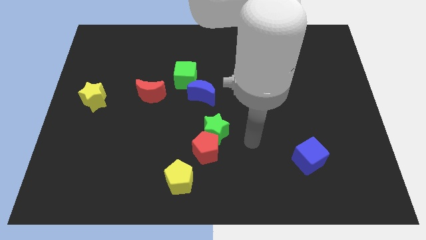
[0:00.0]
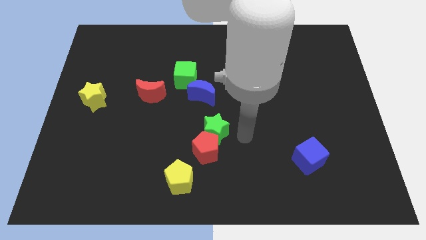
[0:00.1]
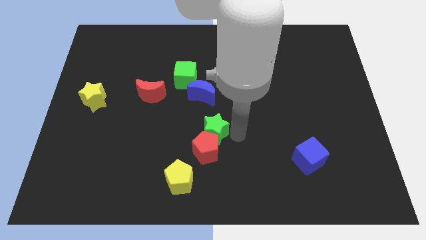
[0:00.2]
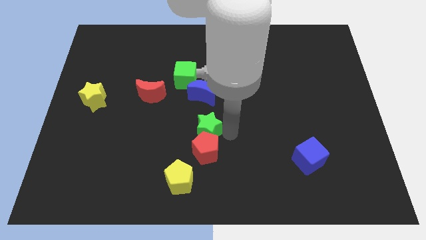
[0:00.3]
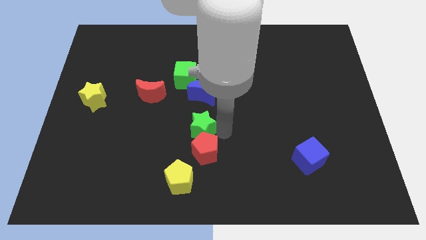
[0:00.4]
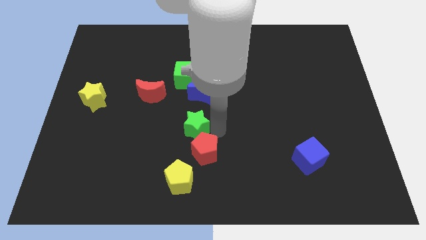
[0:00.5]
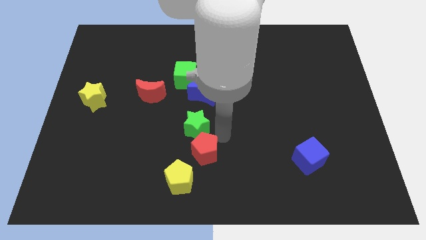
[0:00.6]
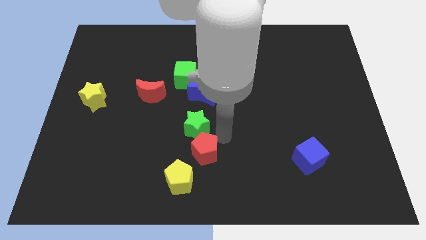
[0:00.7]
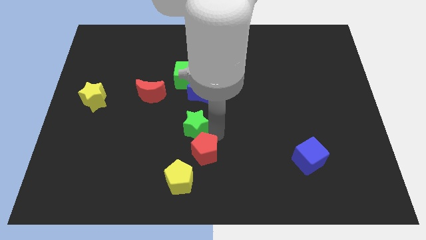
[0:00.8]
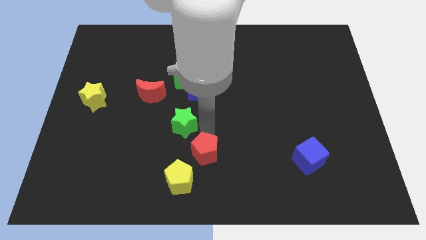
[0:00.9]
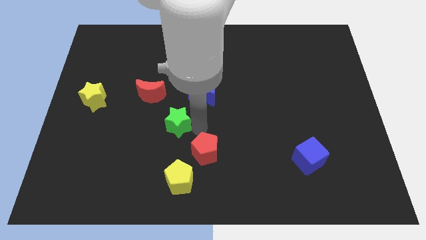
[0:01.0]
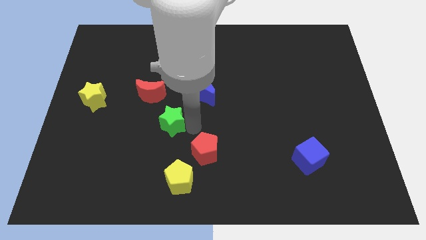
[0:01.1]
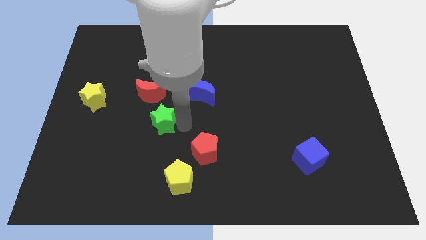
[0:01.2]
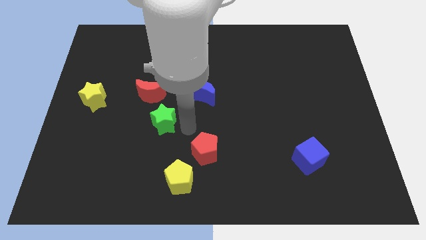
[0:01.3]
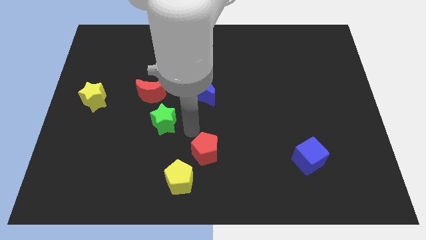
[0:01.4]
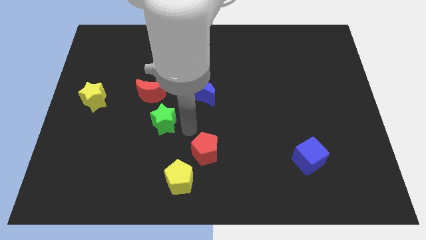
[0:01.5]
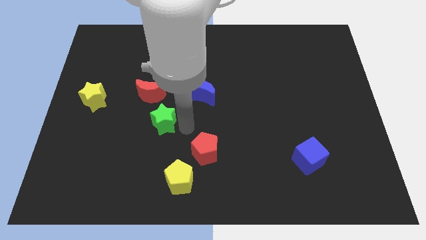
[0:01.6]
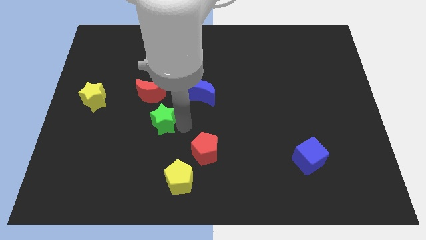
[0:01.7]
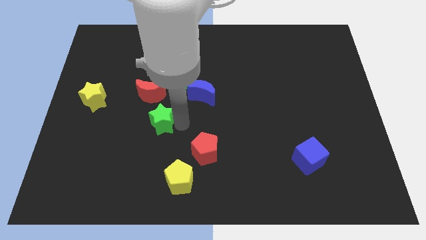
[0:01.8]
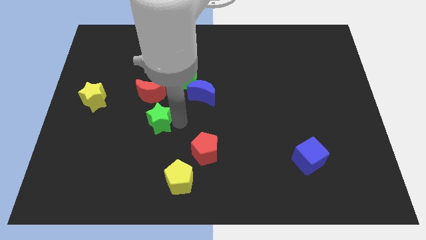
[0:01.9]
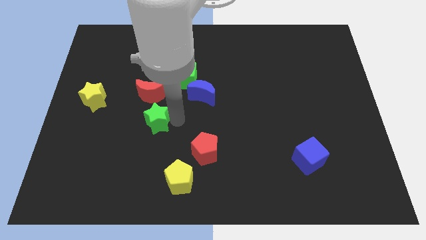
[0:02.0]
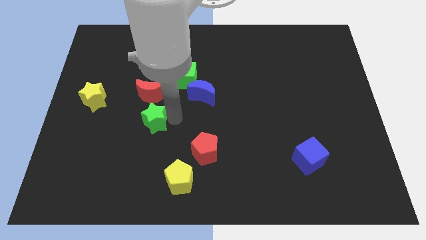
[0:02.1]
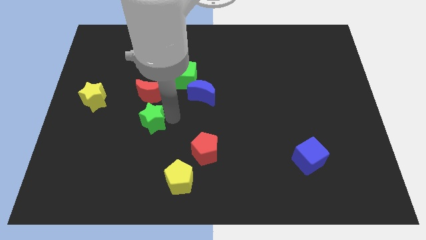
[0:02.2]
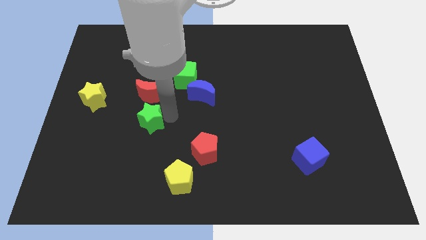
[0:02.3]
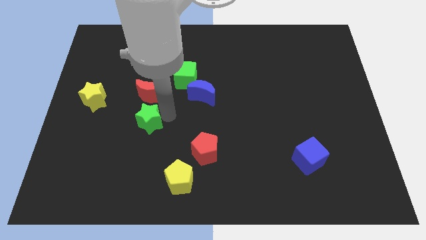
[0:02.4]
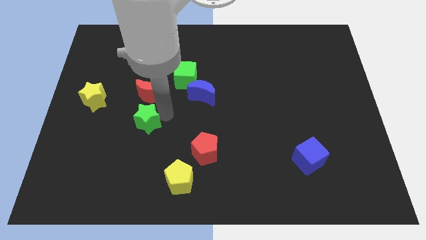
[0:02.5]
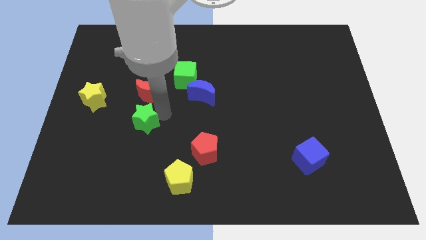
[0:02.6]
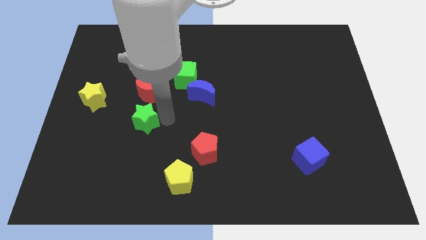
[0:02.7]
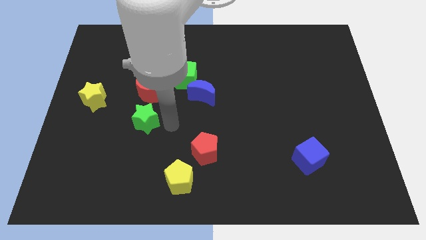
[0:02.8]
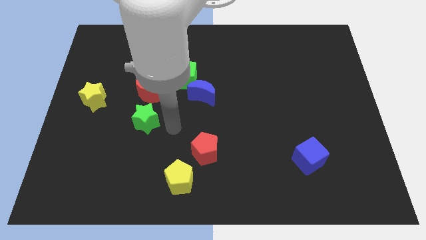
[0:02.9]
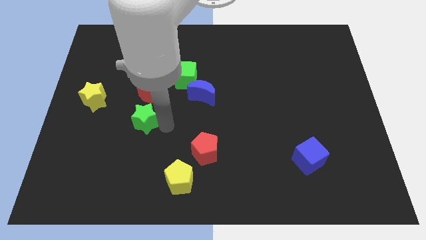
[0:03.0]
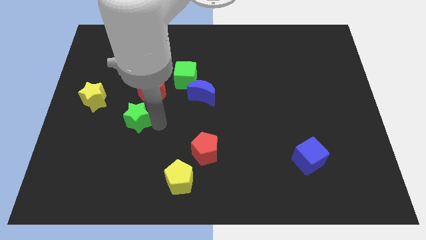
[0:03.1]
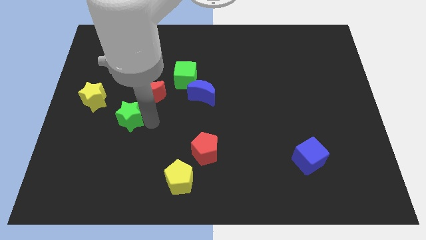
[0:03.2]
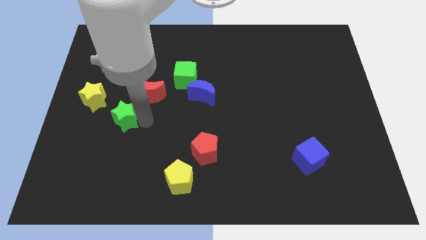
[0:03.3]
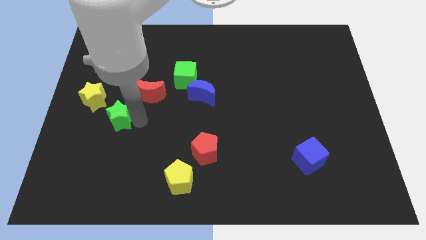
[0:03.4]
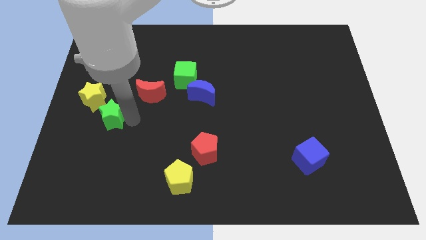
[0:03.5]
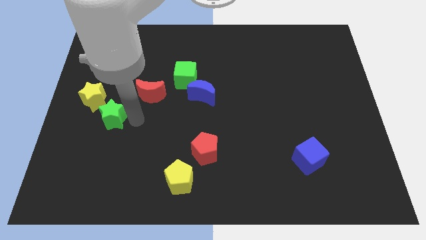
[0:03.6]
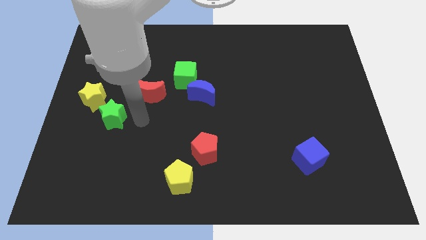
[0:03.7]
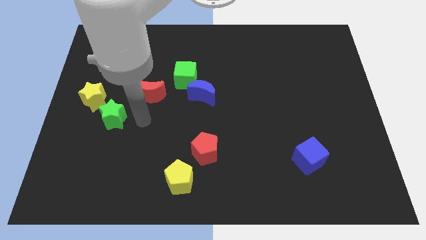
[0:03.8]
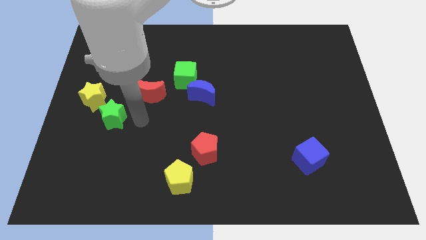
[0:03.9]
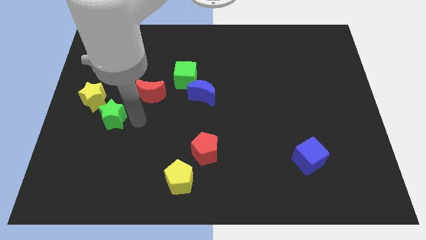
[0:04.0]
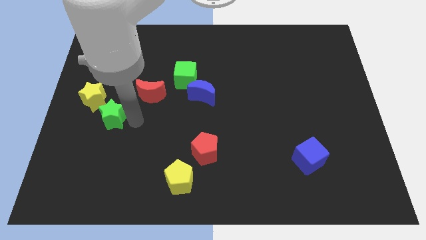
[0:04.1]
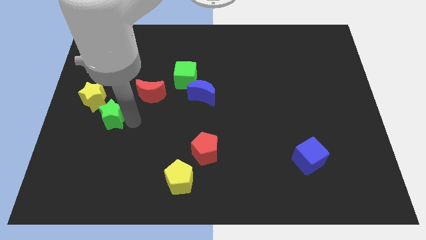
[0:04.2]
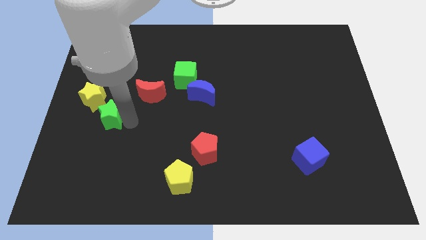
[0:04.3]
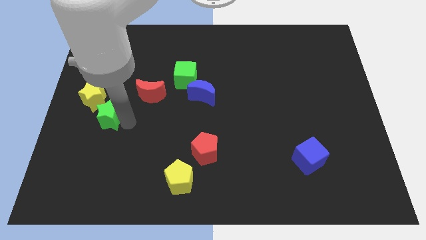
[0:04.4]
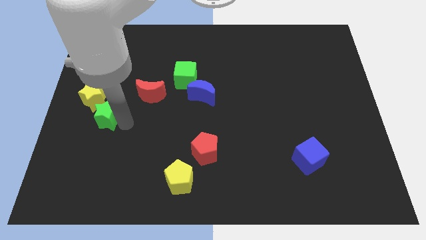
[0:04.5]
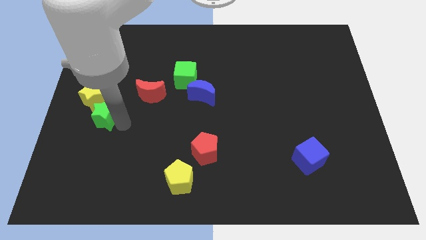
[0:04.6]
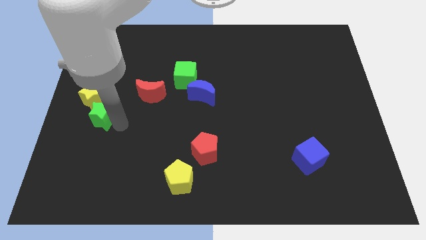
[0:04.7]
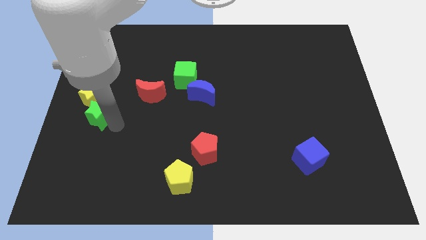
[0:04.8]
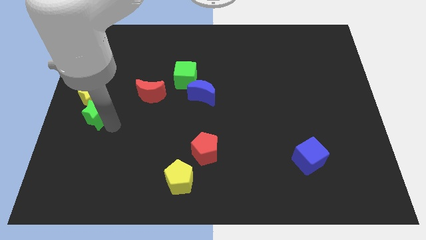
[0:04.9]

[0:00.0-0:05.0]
slide the green star to the center left

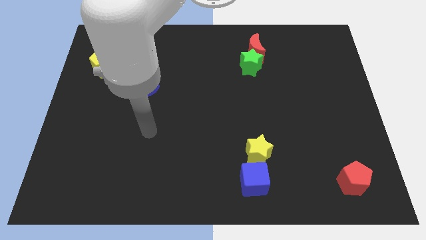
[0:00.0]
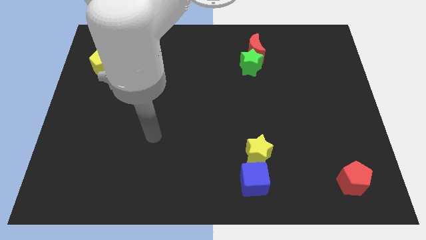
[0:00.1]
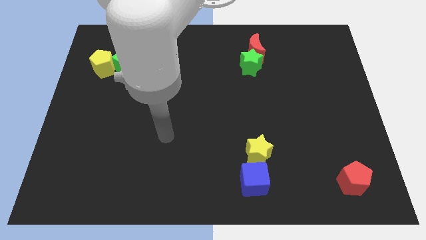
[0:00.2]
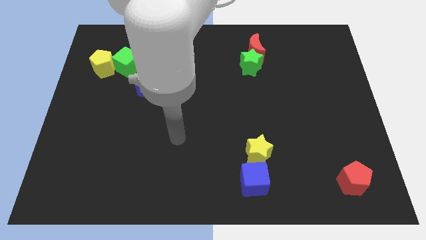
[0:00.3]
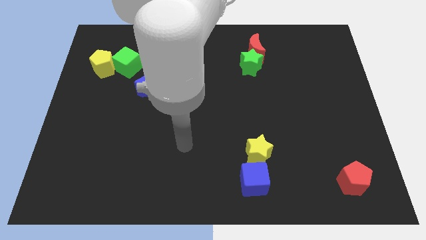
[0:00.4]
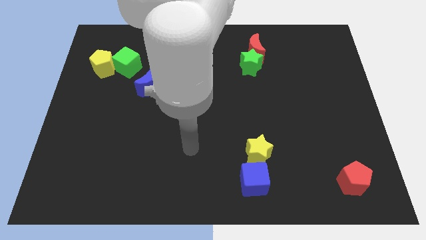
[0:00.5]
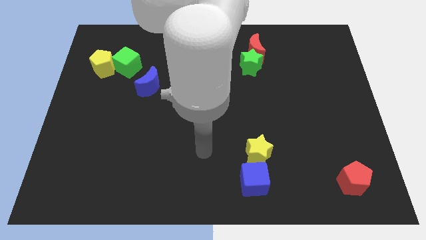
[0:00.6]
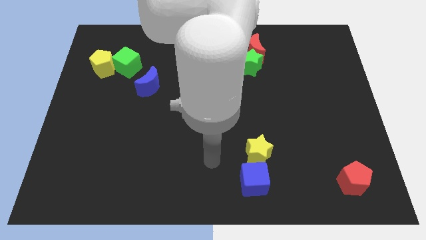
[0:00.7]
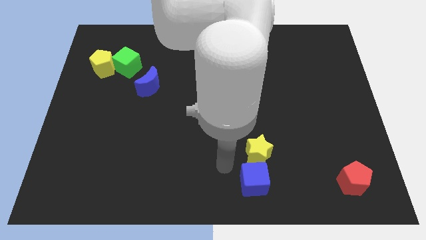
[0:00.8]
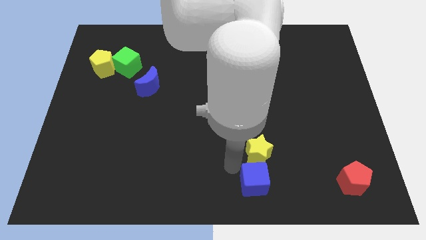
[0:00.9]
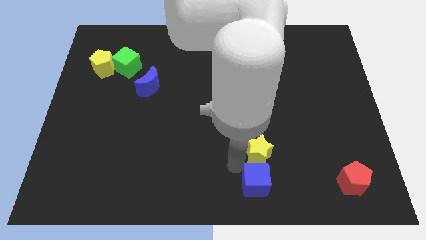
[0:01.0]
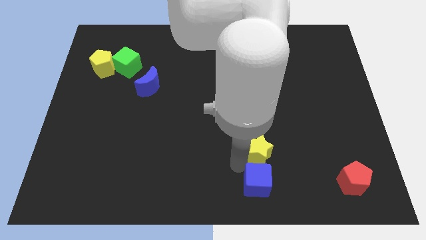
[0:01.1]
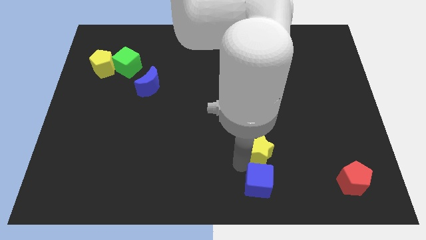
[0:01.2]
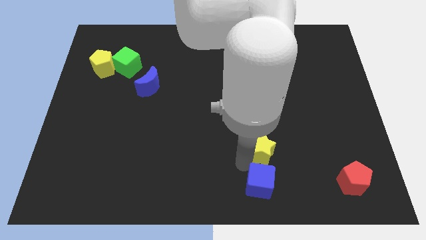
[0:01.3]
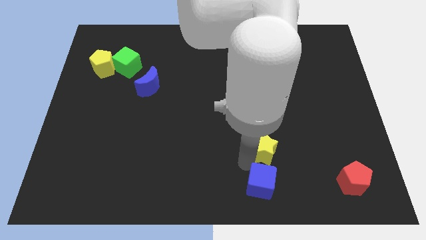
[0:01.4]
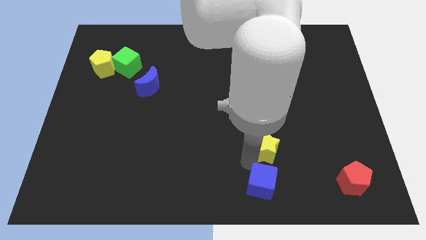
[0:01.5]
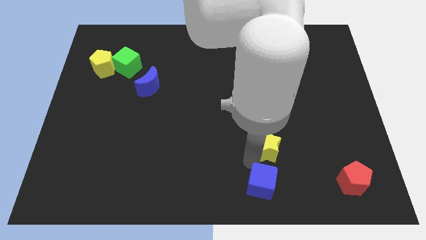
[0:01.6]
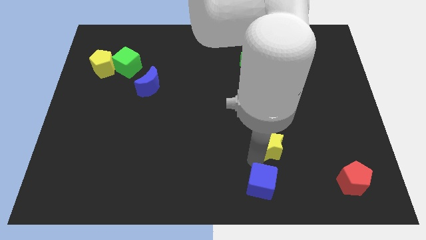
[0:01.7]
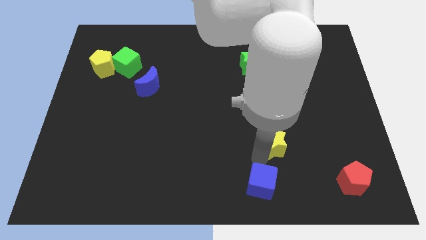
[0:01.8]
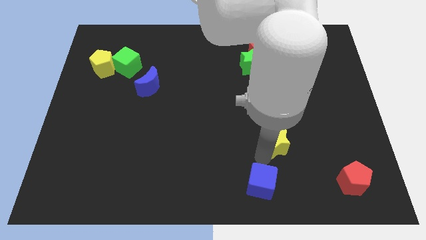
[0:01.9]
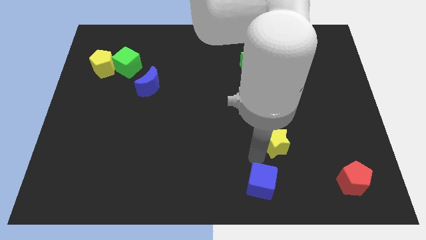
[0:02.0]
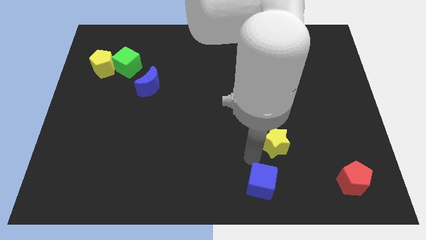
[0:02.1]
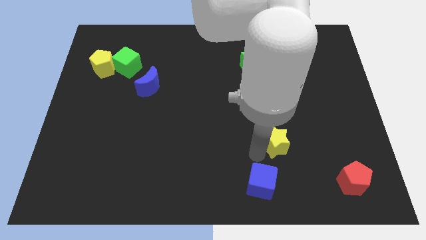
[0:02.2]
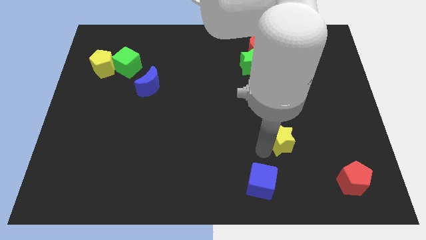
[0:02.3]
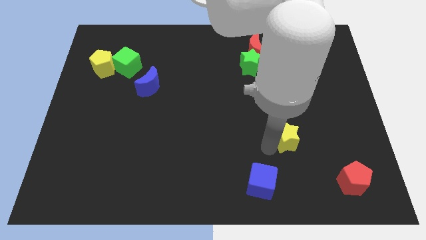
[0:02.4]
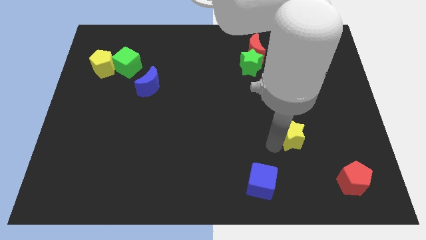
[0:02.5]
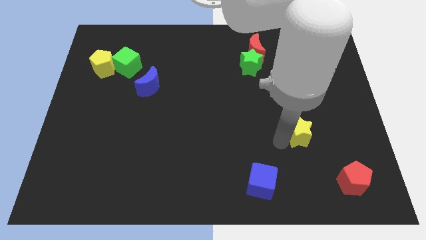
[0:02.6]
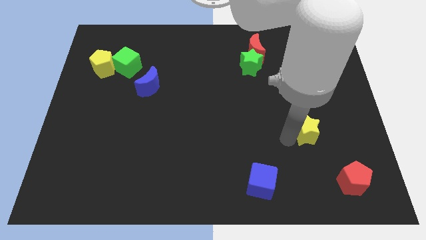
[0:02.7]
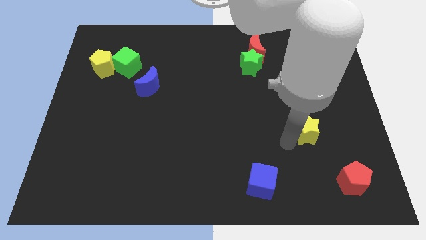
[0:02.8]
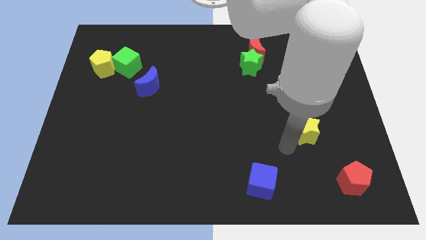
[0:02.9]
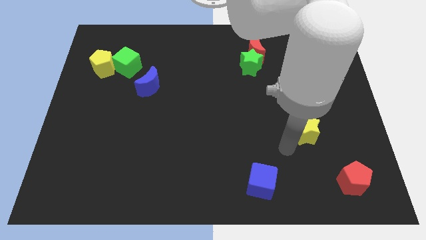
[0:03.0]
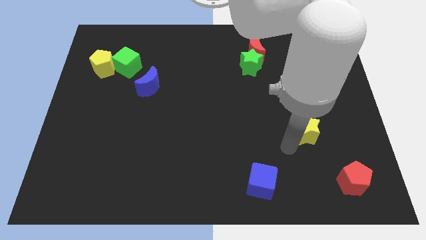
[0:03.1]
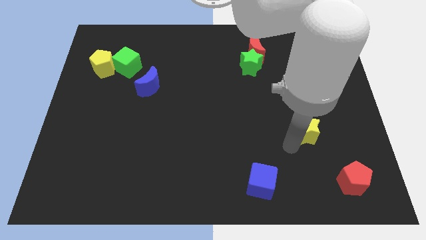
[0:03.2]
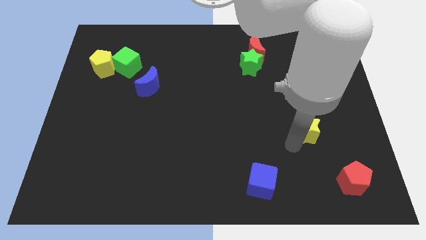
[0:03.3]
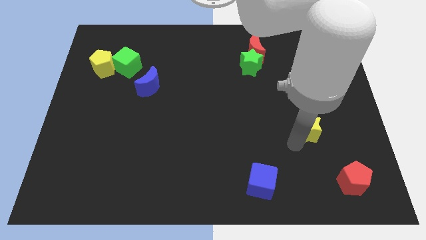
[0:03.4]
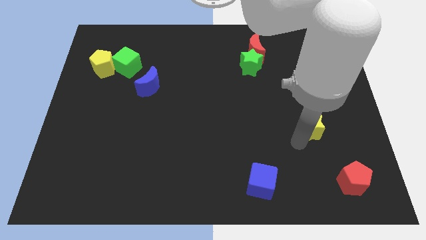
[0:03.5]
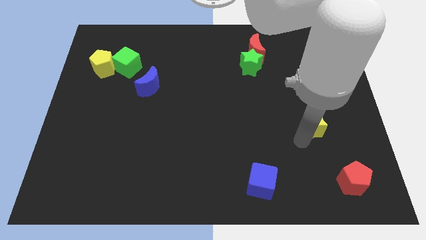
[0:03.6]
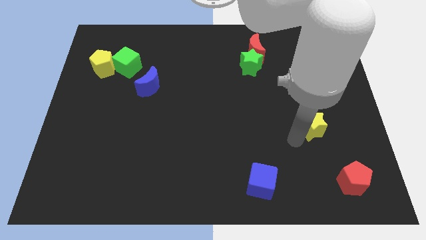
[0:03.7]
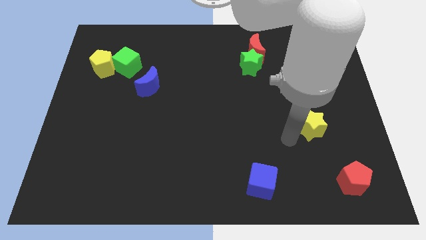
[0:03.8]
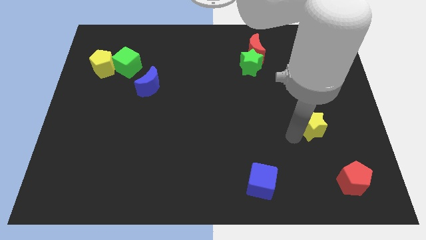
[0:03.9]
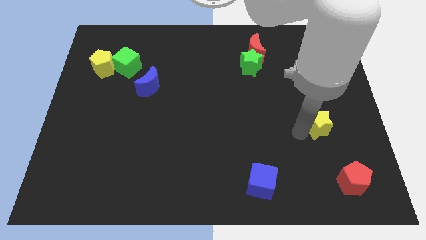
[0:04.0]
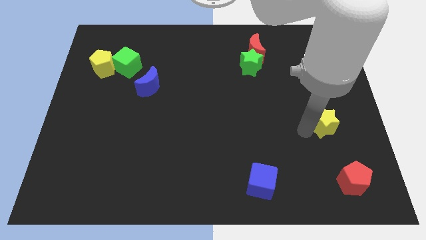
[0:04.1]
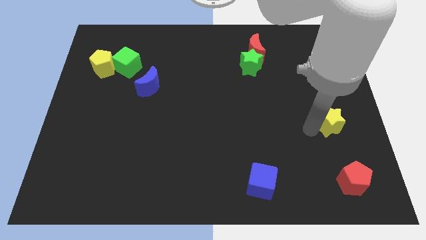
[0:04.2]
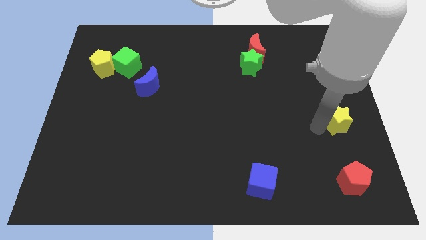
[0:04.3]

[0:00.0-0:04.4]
put the yellow star to the right side of the board
